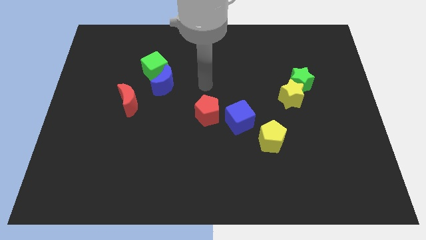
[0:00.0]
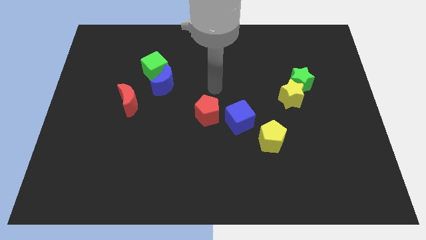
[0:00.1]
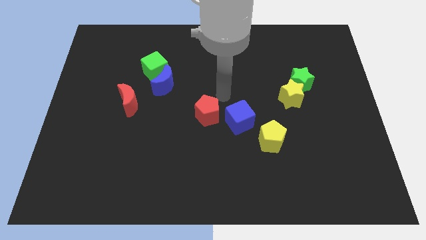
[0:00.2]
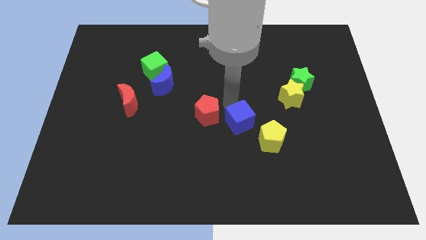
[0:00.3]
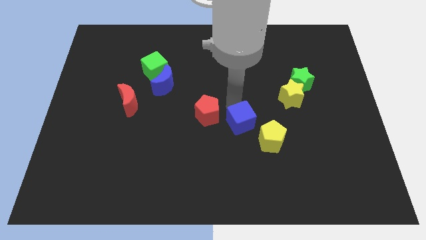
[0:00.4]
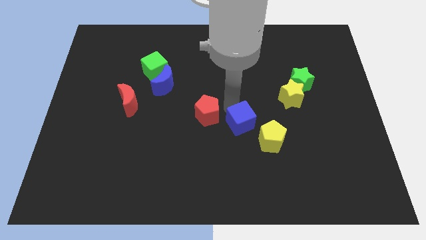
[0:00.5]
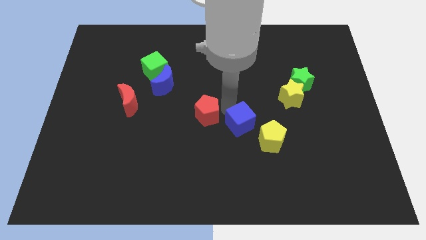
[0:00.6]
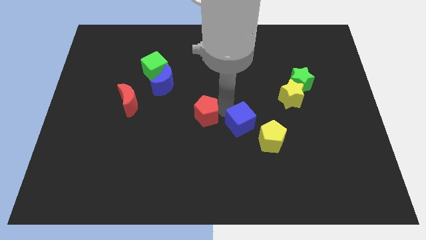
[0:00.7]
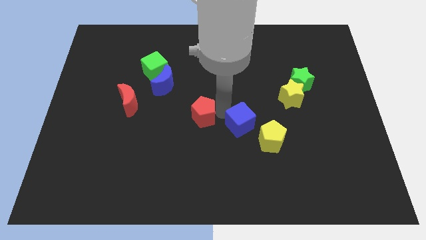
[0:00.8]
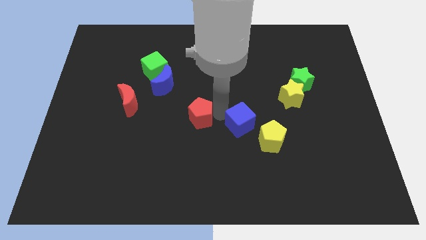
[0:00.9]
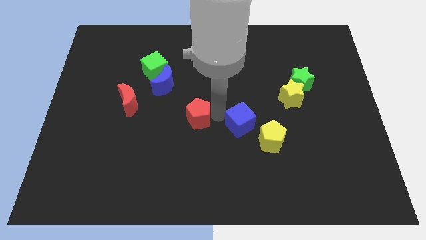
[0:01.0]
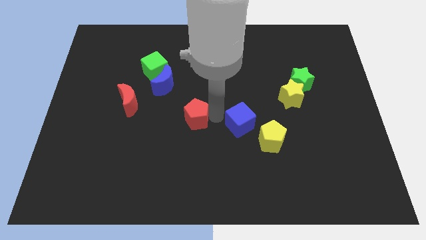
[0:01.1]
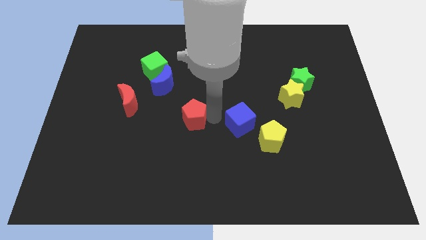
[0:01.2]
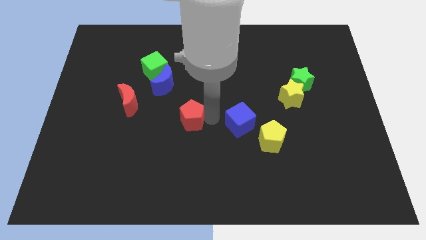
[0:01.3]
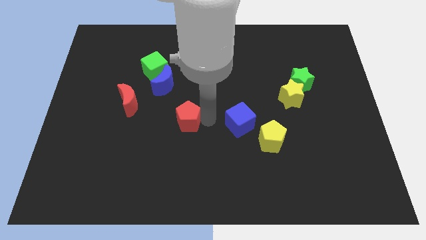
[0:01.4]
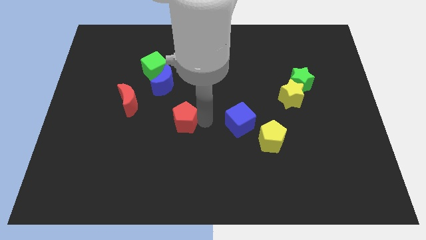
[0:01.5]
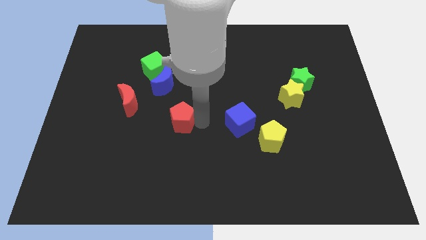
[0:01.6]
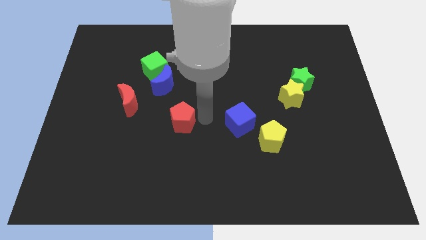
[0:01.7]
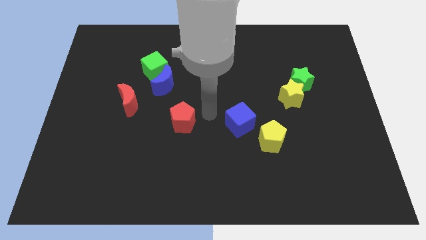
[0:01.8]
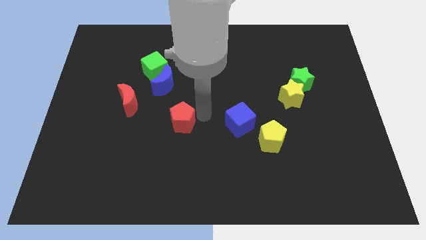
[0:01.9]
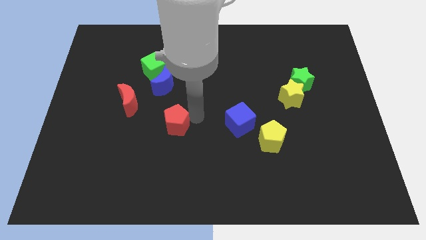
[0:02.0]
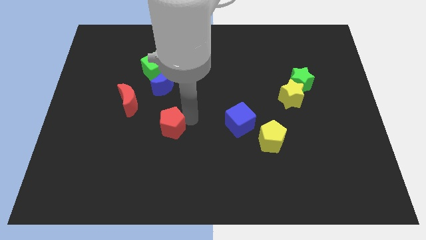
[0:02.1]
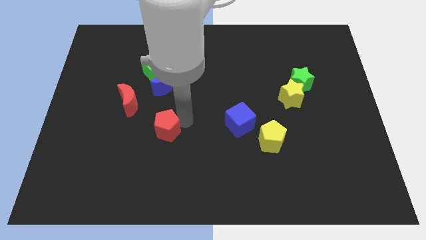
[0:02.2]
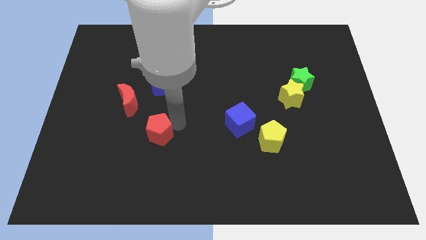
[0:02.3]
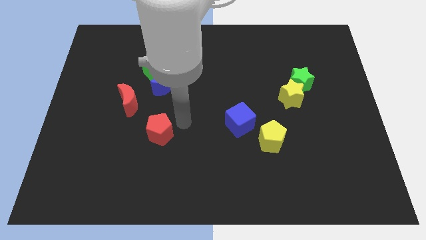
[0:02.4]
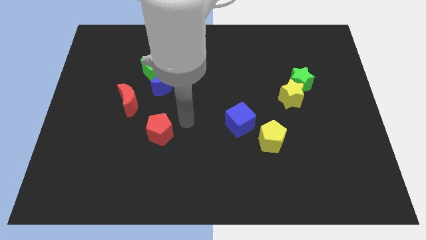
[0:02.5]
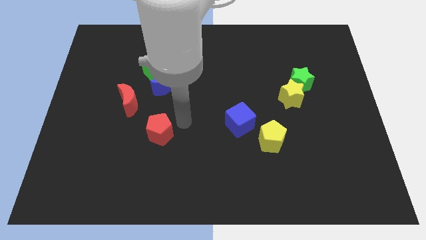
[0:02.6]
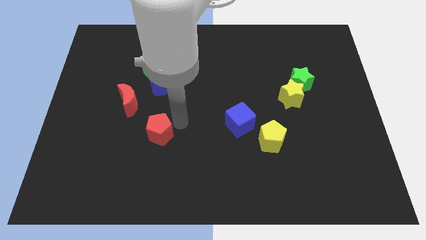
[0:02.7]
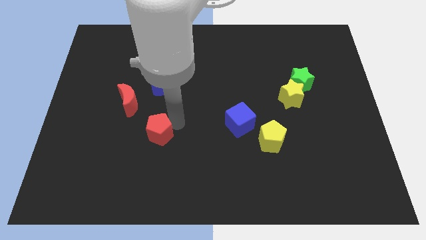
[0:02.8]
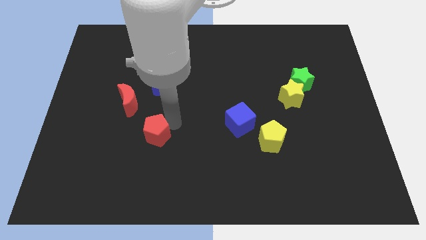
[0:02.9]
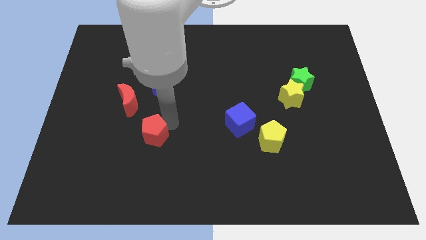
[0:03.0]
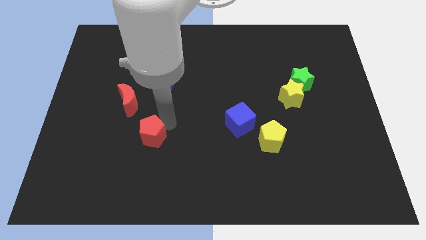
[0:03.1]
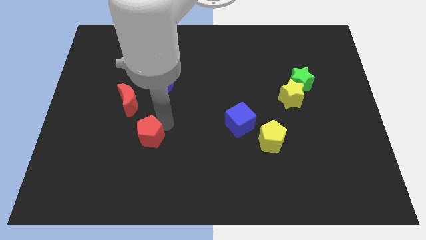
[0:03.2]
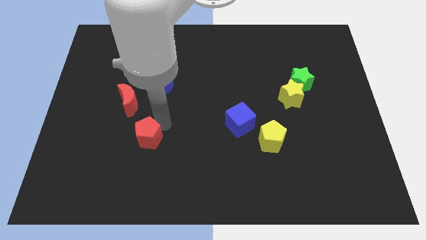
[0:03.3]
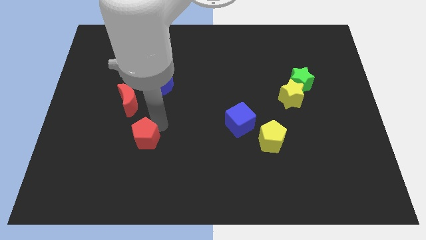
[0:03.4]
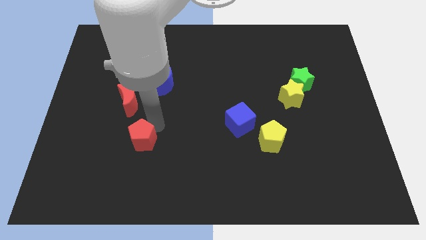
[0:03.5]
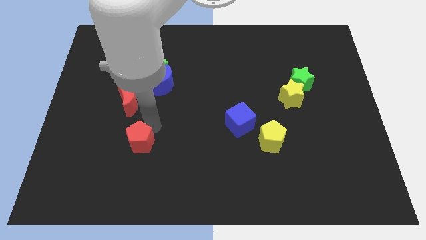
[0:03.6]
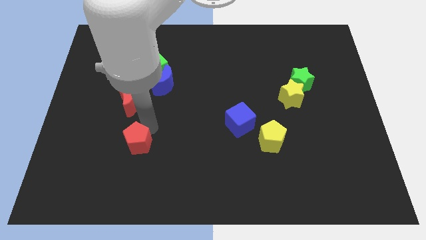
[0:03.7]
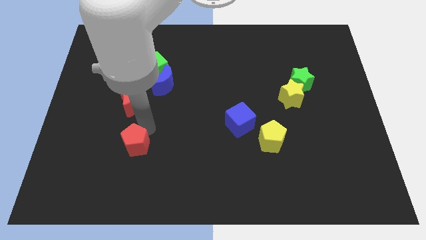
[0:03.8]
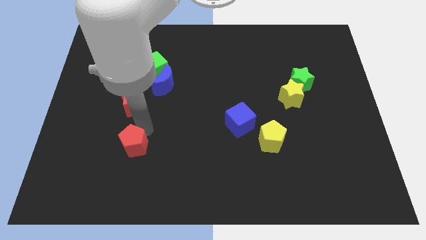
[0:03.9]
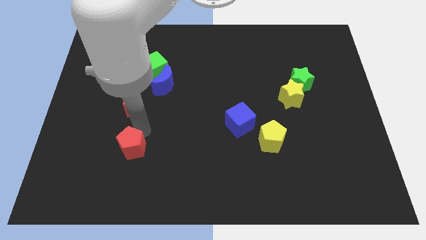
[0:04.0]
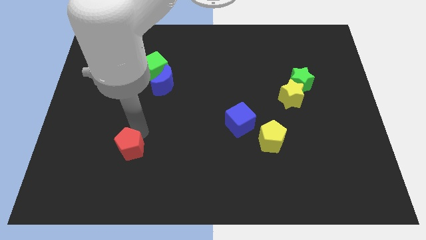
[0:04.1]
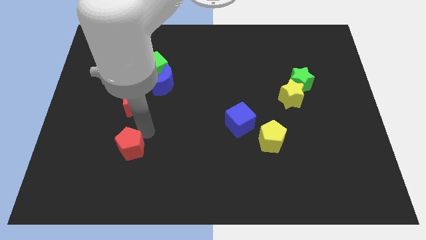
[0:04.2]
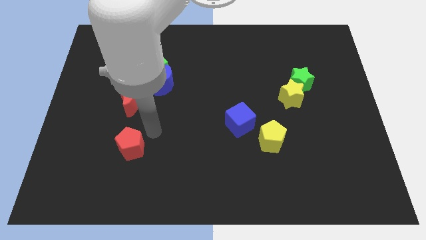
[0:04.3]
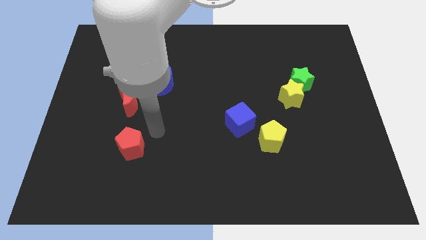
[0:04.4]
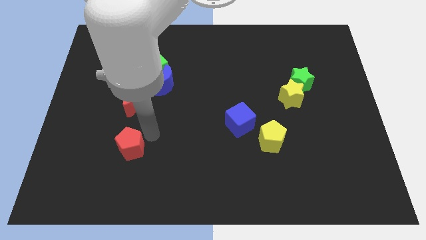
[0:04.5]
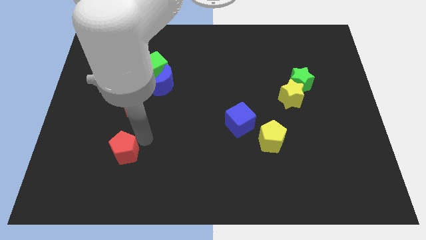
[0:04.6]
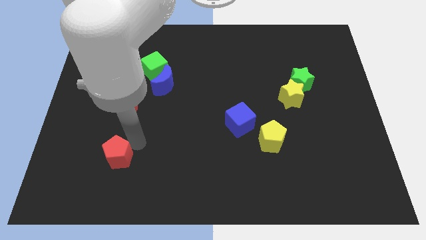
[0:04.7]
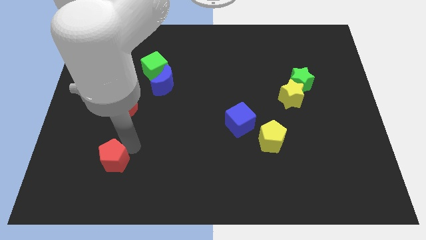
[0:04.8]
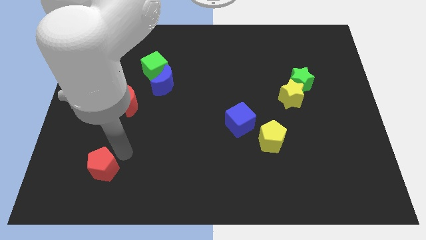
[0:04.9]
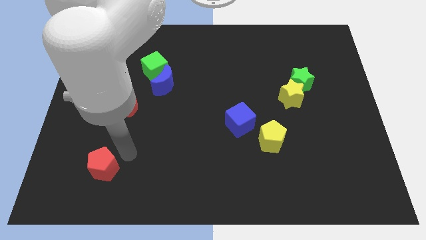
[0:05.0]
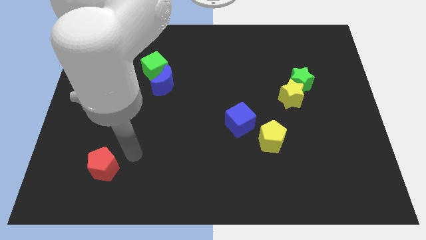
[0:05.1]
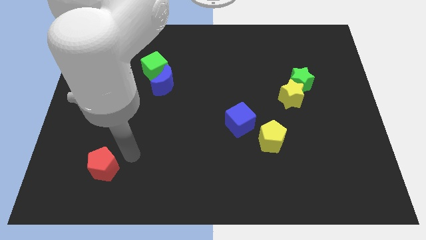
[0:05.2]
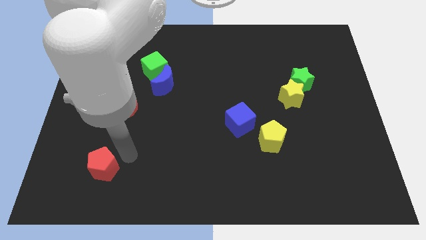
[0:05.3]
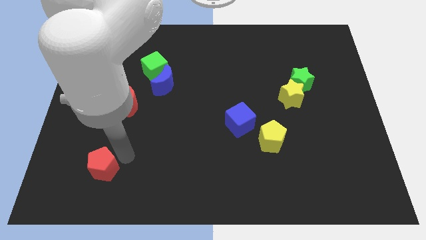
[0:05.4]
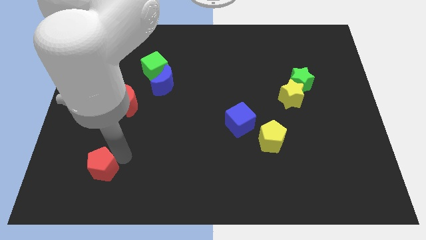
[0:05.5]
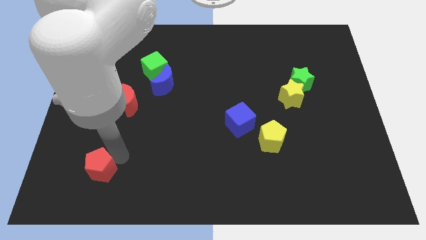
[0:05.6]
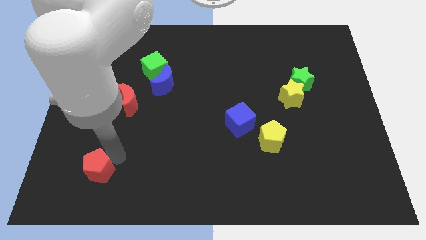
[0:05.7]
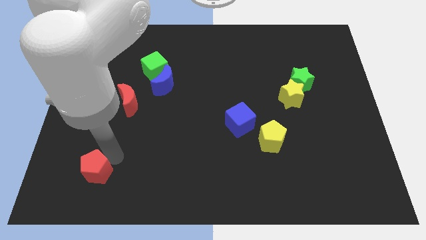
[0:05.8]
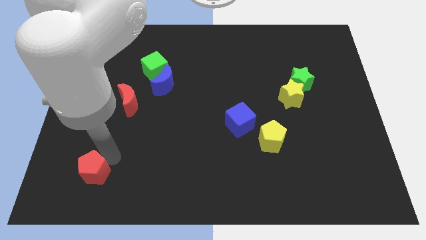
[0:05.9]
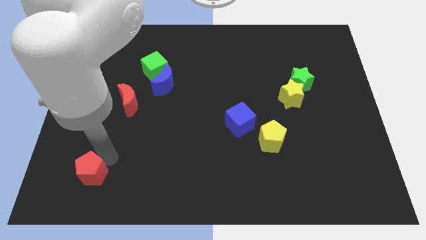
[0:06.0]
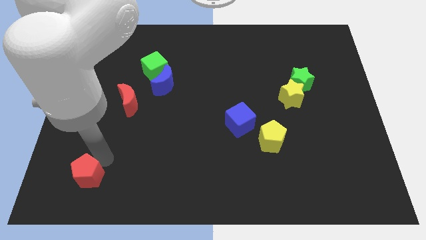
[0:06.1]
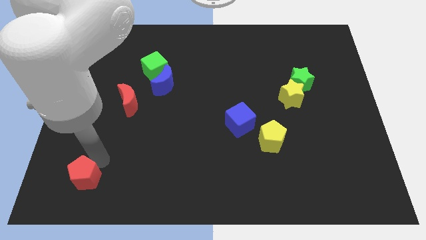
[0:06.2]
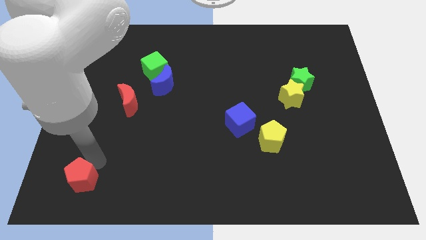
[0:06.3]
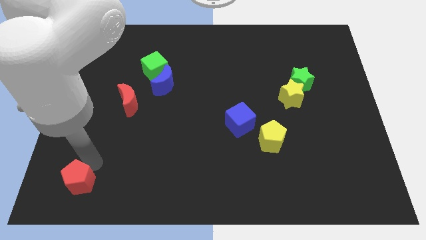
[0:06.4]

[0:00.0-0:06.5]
slide the red pentagon to the bottom left of the board

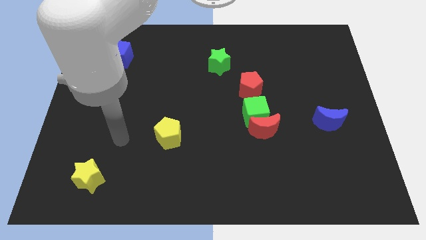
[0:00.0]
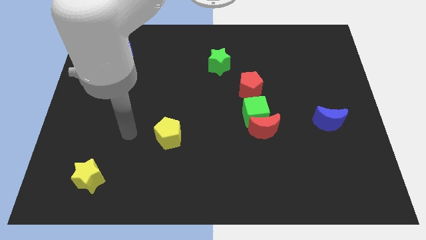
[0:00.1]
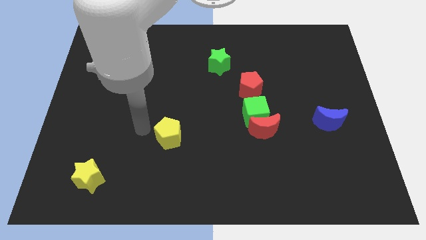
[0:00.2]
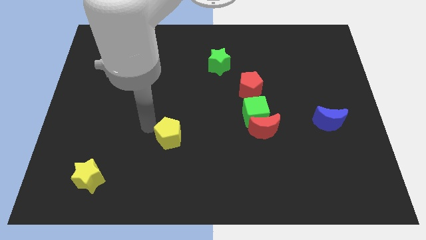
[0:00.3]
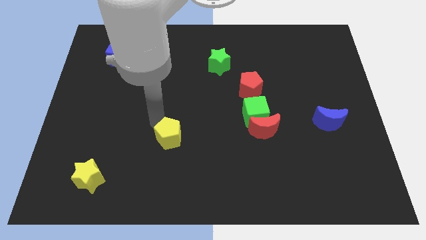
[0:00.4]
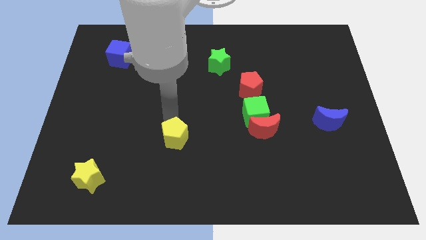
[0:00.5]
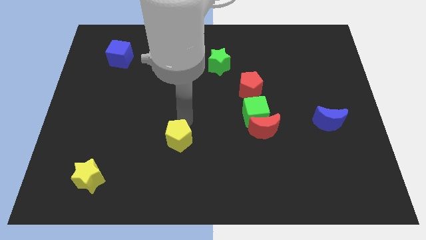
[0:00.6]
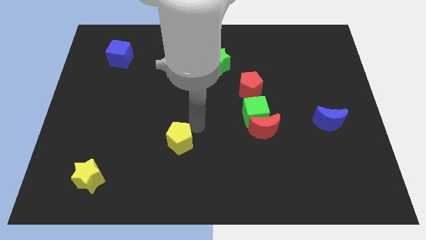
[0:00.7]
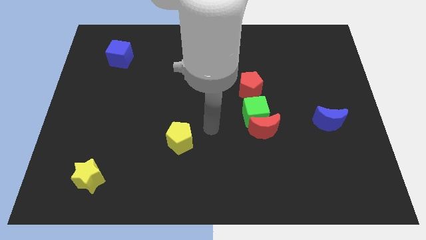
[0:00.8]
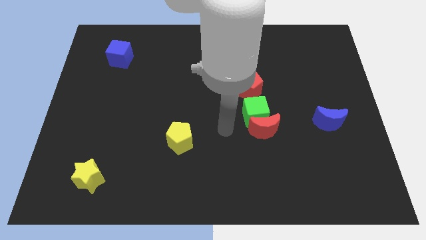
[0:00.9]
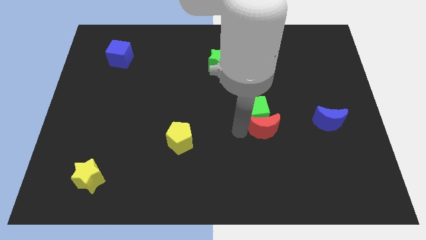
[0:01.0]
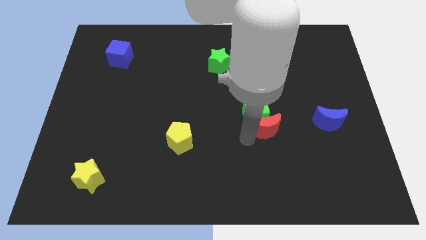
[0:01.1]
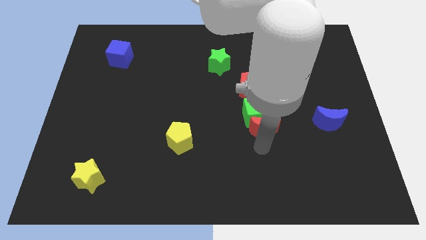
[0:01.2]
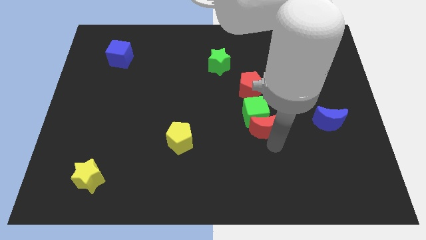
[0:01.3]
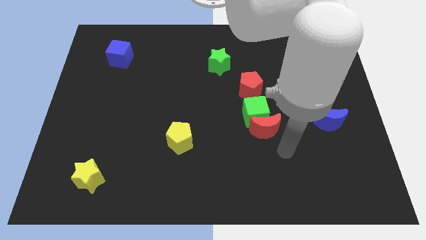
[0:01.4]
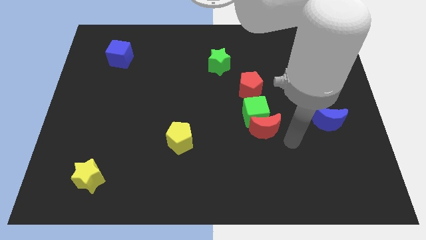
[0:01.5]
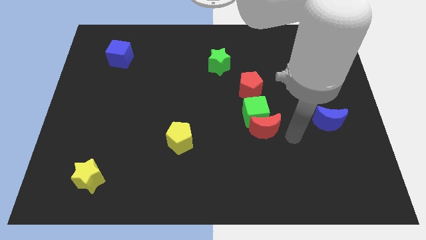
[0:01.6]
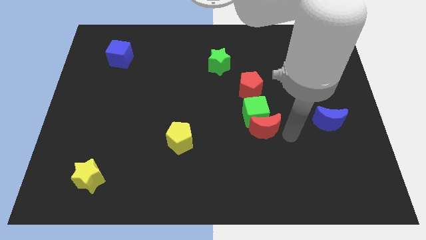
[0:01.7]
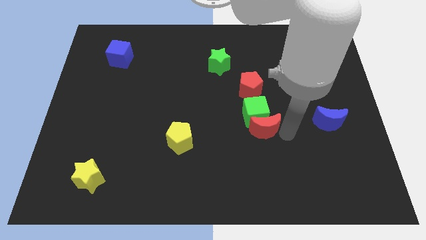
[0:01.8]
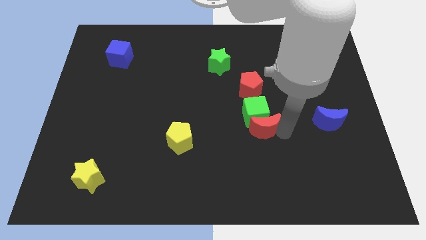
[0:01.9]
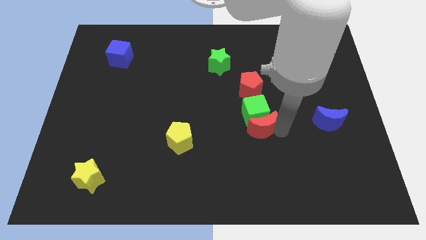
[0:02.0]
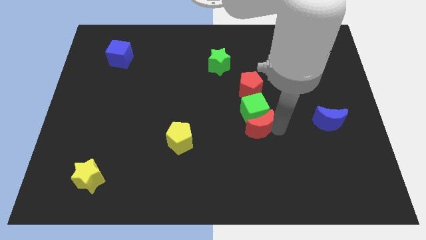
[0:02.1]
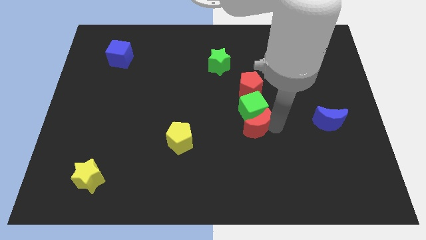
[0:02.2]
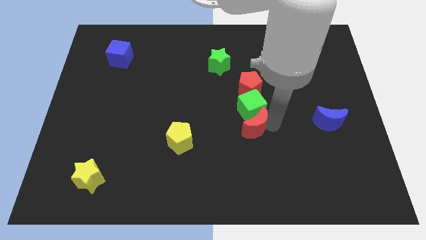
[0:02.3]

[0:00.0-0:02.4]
slide the red moon to the middle of the board
